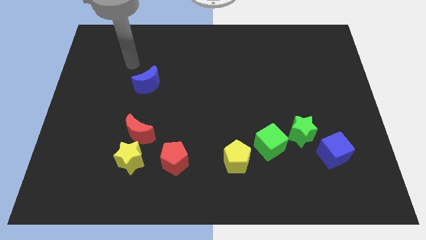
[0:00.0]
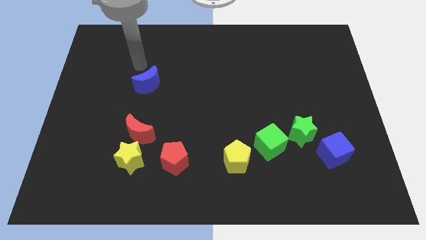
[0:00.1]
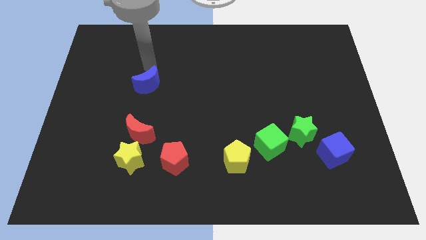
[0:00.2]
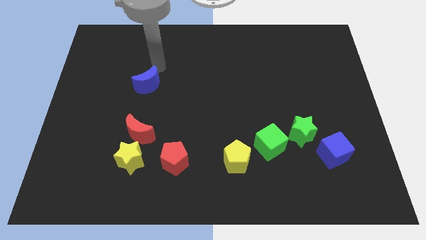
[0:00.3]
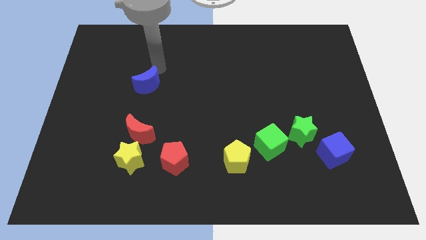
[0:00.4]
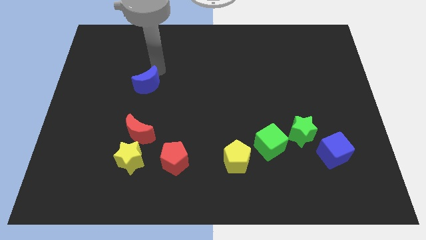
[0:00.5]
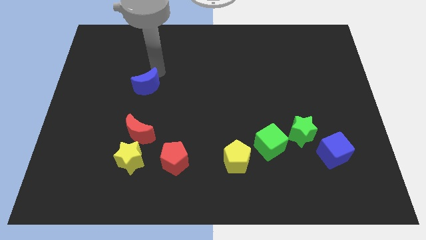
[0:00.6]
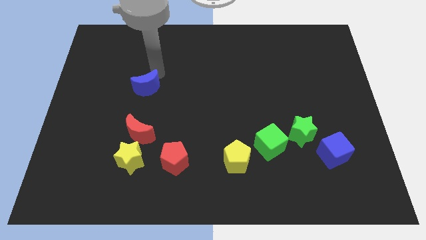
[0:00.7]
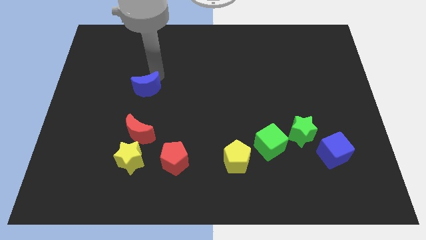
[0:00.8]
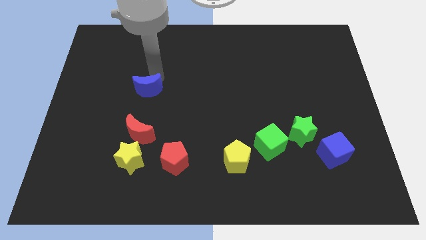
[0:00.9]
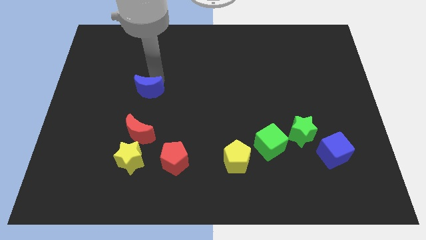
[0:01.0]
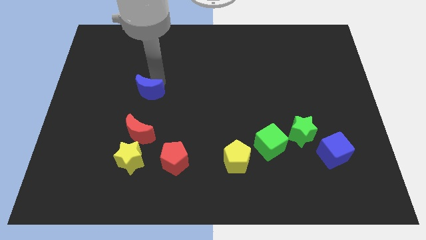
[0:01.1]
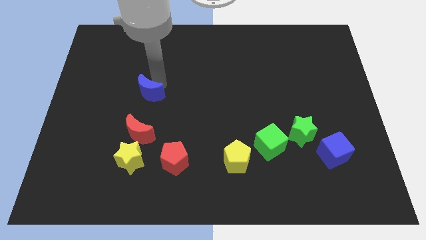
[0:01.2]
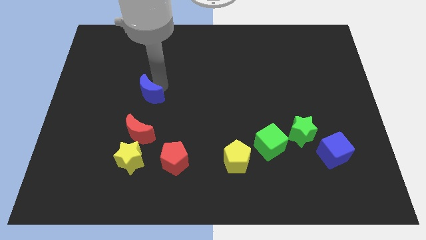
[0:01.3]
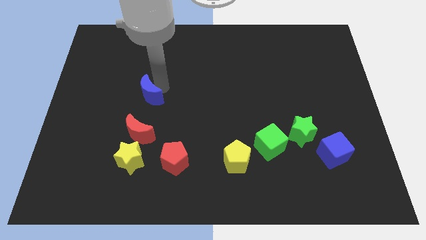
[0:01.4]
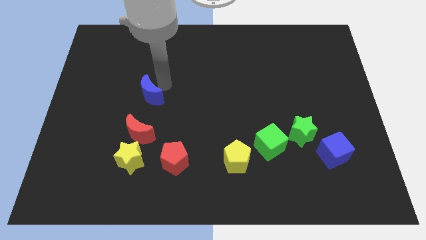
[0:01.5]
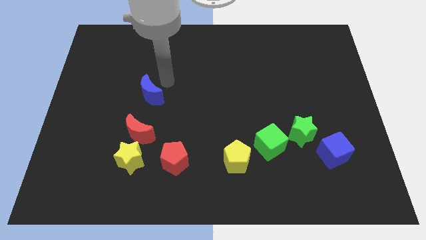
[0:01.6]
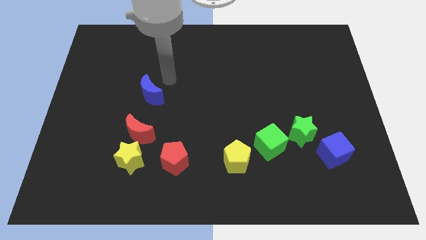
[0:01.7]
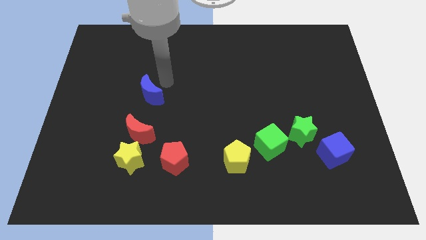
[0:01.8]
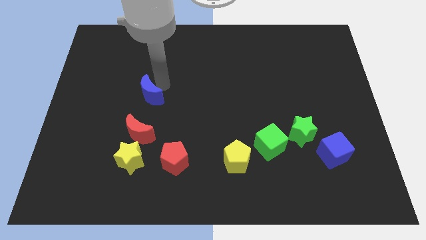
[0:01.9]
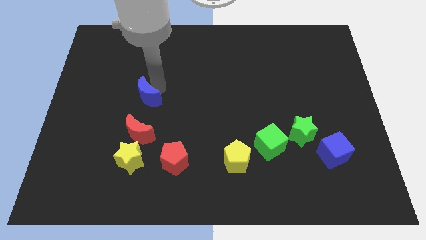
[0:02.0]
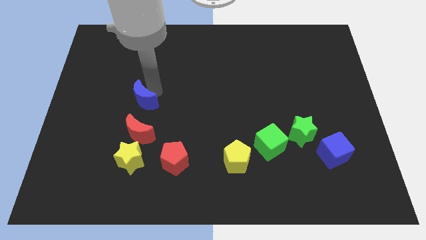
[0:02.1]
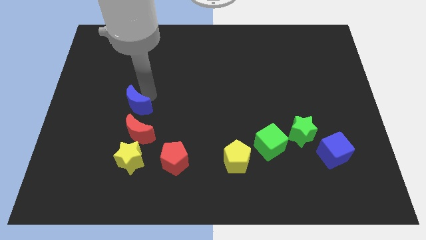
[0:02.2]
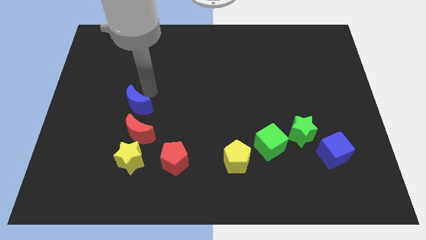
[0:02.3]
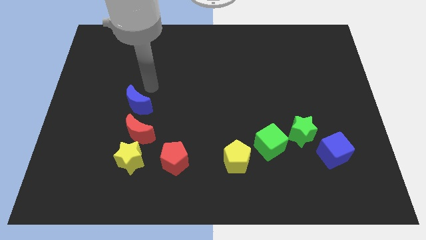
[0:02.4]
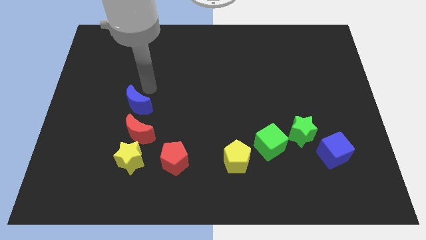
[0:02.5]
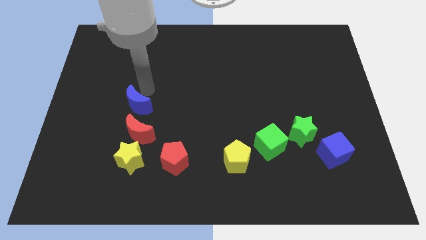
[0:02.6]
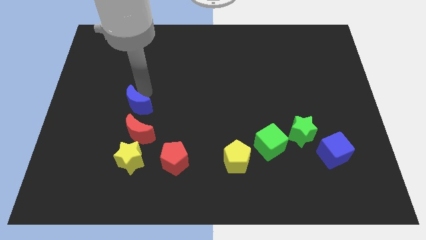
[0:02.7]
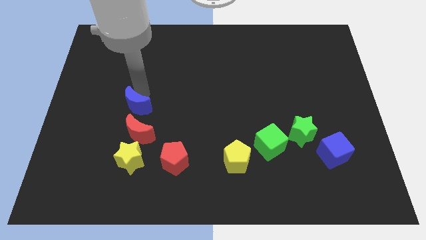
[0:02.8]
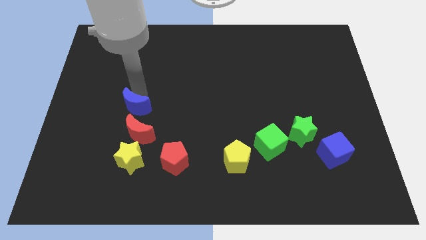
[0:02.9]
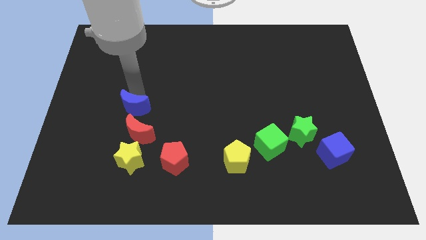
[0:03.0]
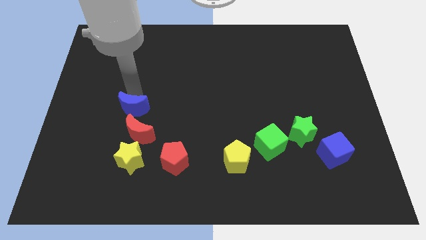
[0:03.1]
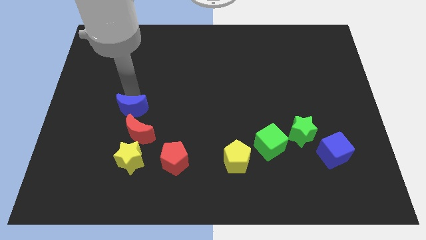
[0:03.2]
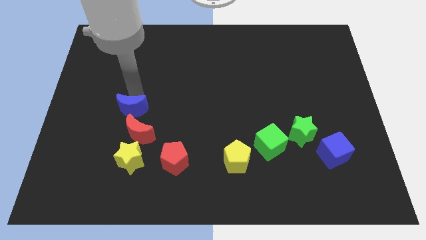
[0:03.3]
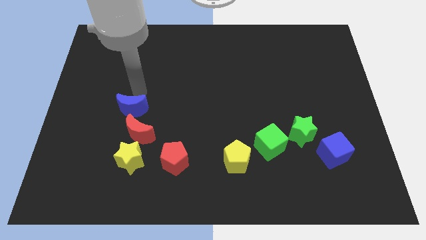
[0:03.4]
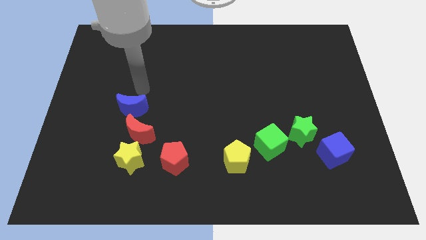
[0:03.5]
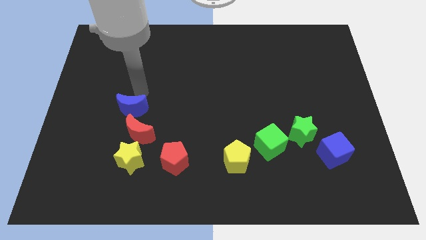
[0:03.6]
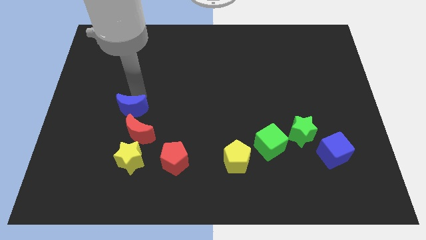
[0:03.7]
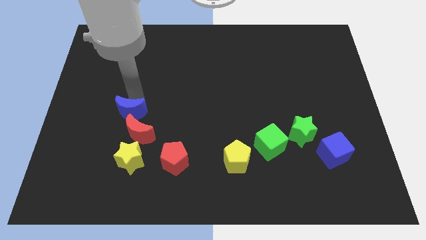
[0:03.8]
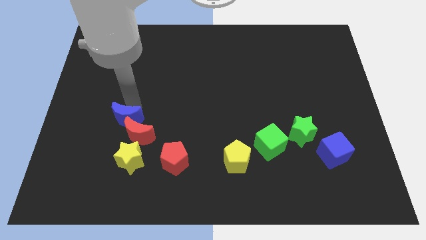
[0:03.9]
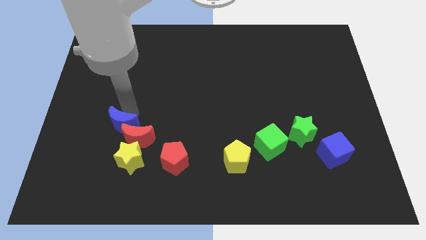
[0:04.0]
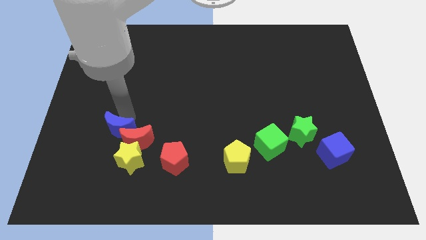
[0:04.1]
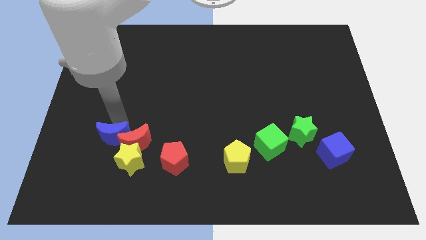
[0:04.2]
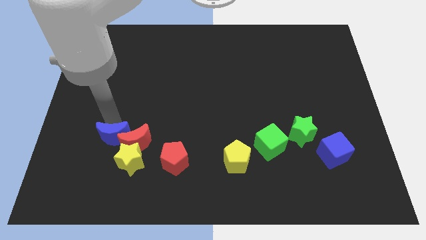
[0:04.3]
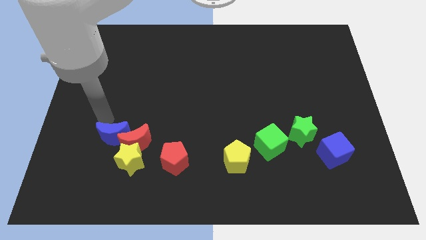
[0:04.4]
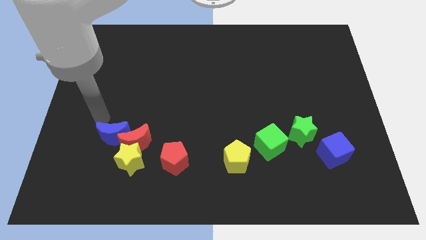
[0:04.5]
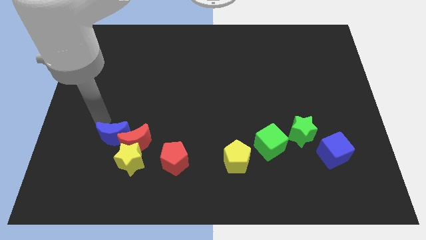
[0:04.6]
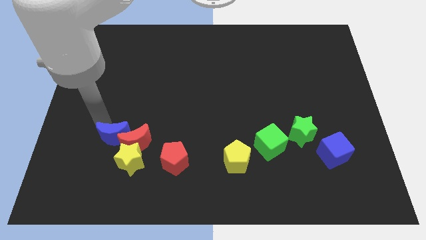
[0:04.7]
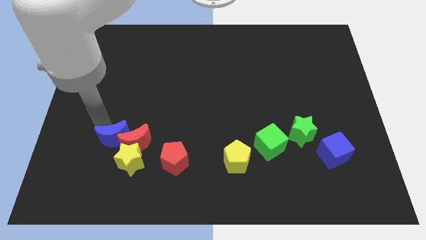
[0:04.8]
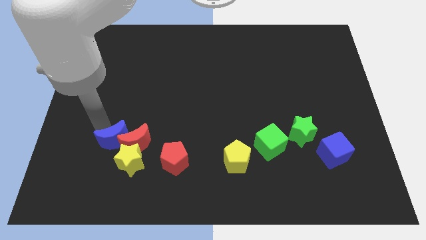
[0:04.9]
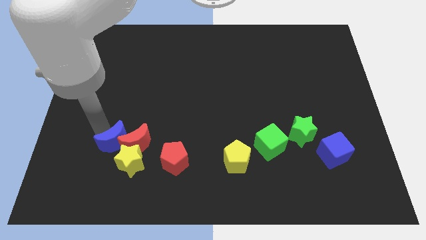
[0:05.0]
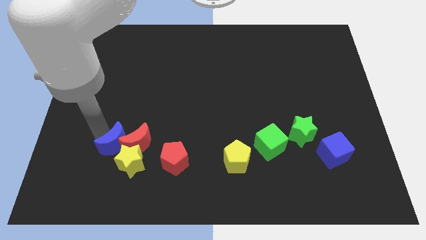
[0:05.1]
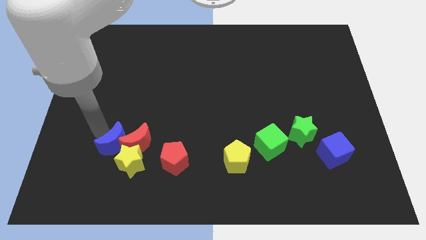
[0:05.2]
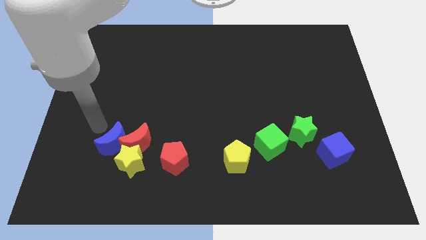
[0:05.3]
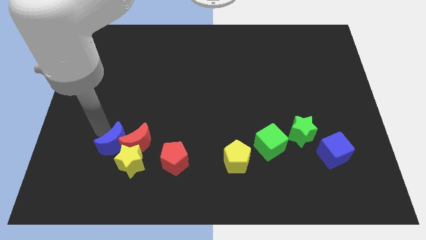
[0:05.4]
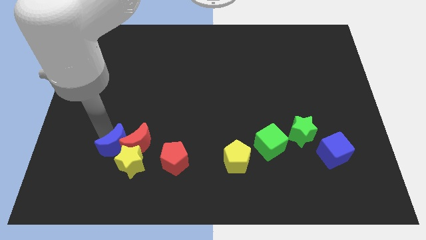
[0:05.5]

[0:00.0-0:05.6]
move the blue moon towards the yellow star

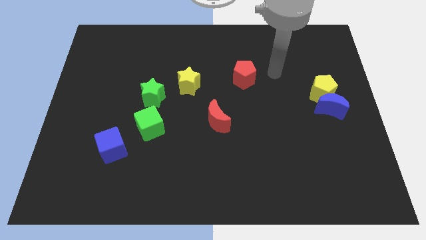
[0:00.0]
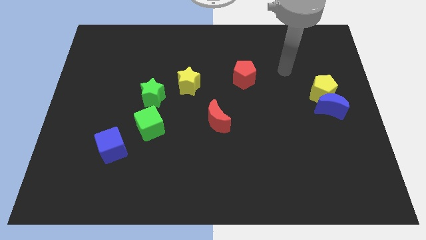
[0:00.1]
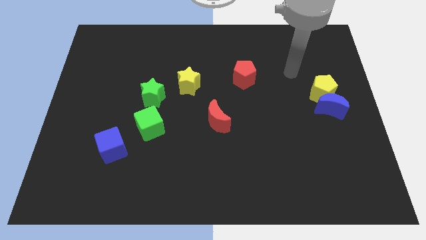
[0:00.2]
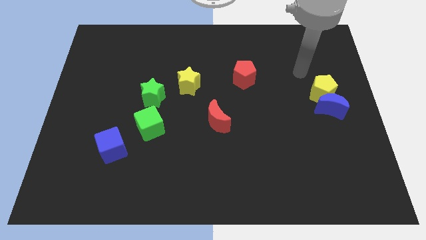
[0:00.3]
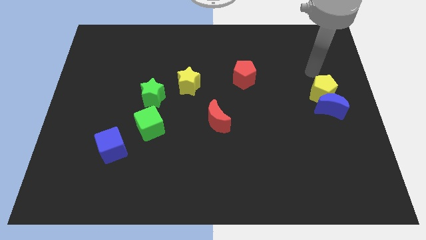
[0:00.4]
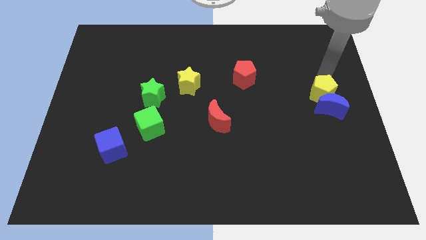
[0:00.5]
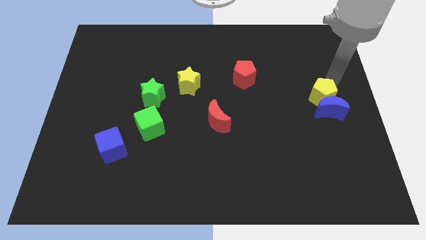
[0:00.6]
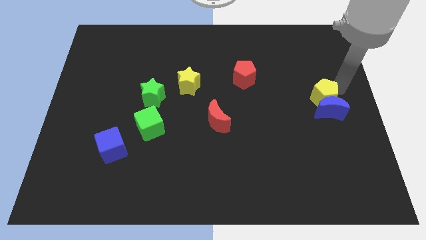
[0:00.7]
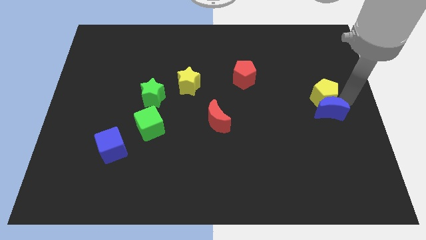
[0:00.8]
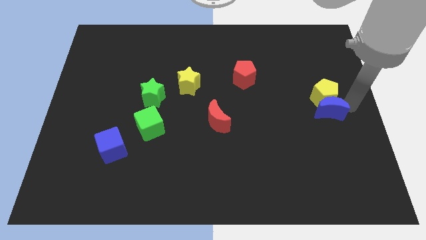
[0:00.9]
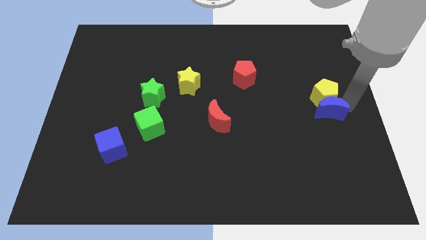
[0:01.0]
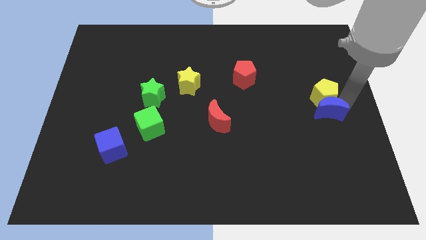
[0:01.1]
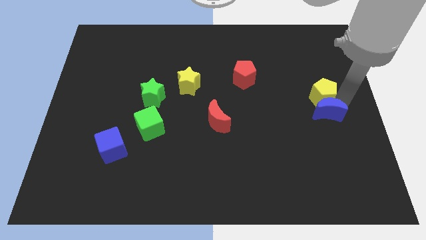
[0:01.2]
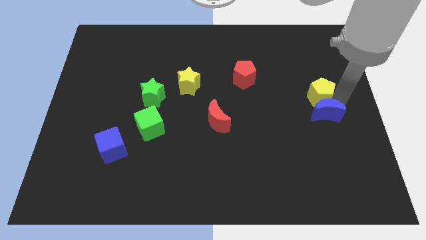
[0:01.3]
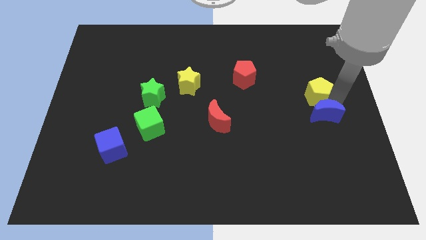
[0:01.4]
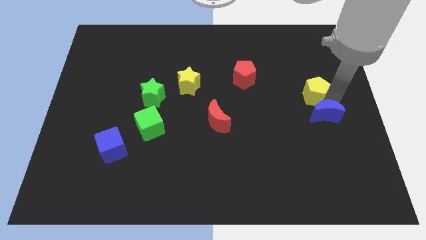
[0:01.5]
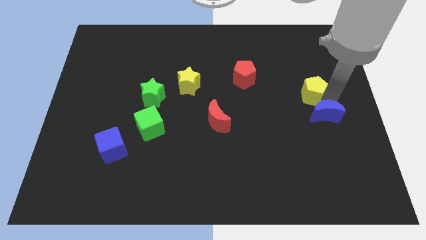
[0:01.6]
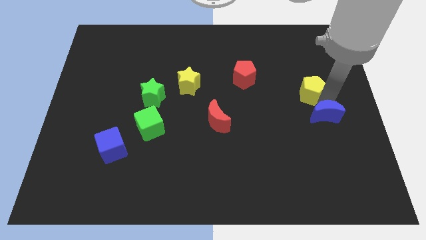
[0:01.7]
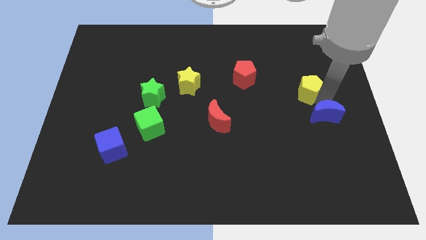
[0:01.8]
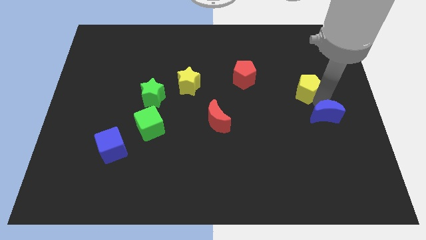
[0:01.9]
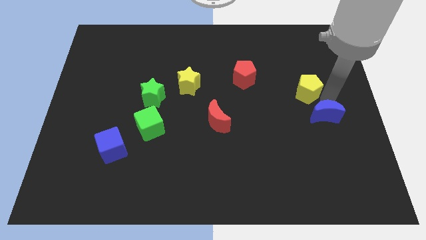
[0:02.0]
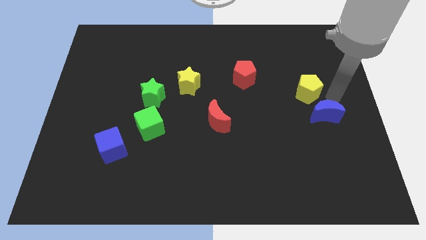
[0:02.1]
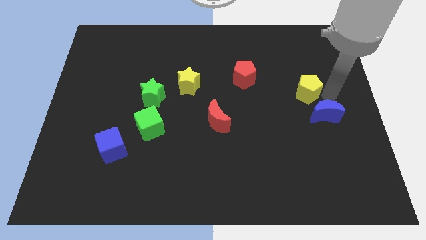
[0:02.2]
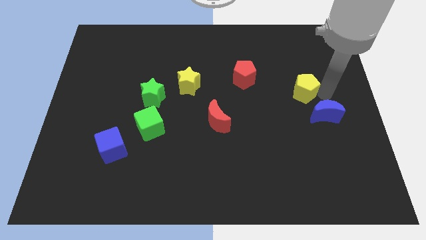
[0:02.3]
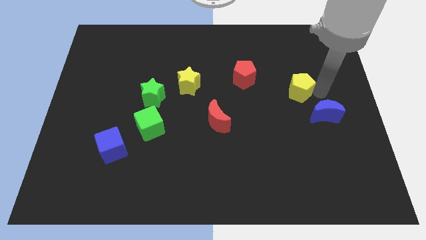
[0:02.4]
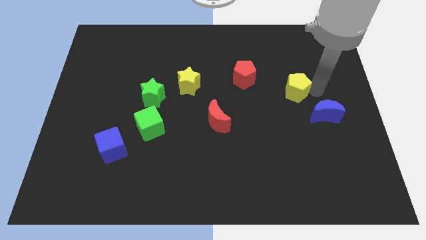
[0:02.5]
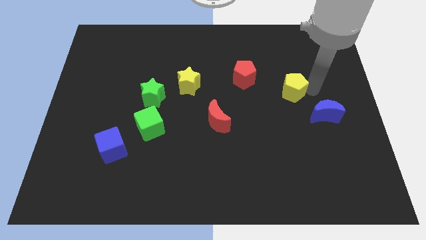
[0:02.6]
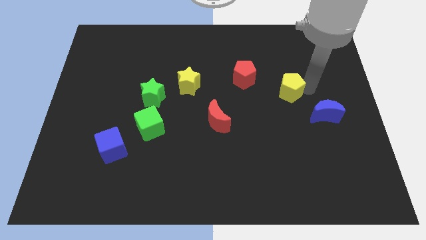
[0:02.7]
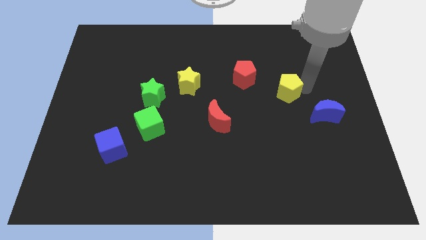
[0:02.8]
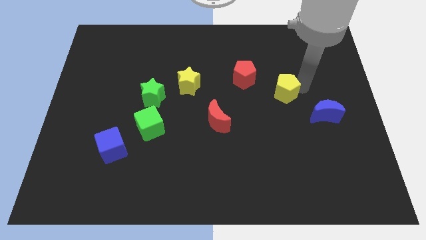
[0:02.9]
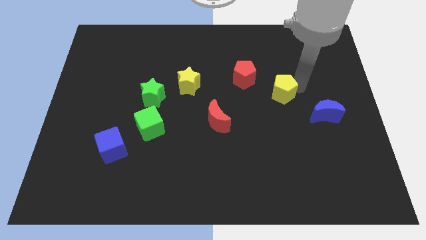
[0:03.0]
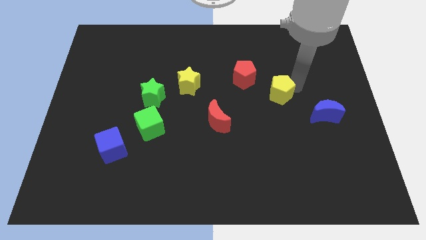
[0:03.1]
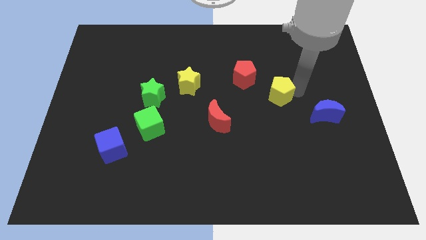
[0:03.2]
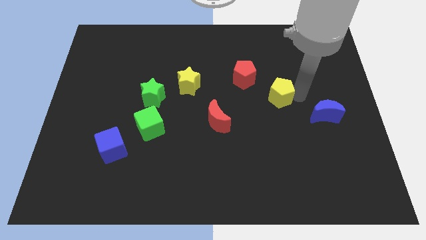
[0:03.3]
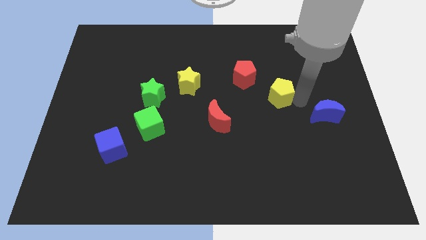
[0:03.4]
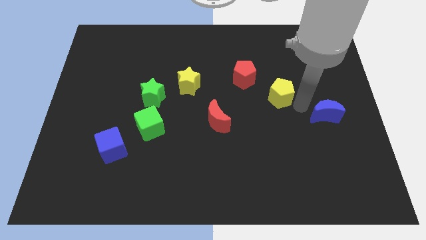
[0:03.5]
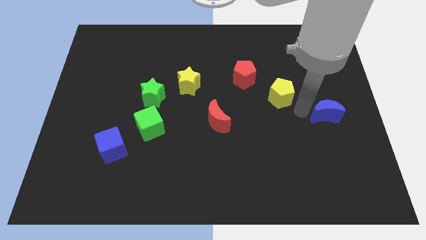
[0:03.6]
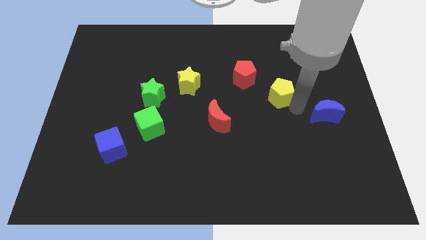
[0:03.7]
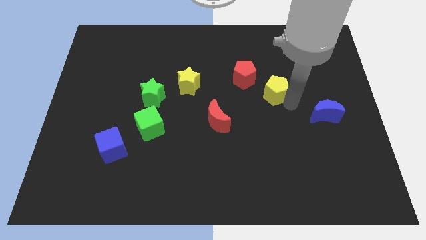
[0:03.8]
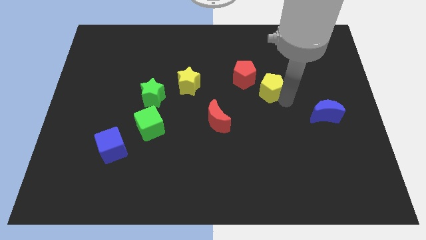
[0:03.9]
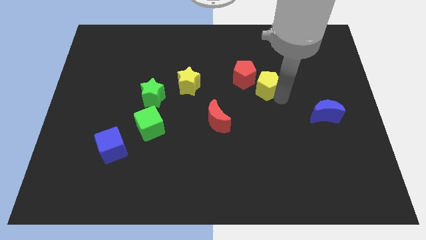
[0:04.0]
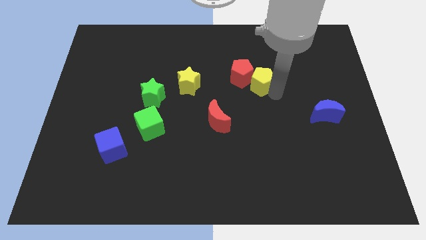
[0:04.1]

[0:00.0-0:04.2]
push the yellow pentagon towards the red pentagon
